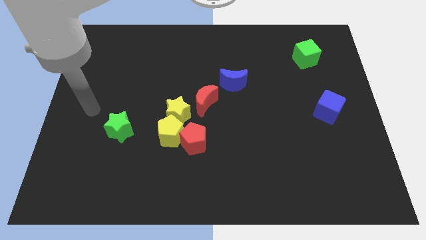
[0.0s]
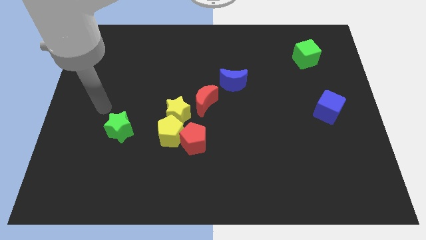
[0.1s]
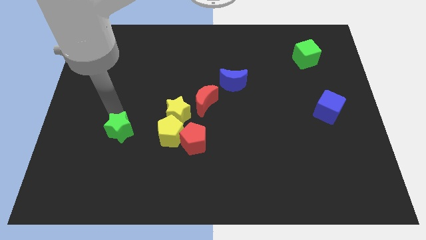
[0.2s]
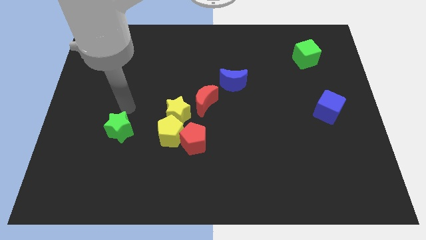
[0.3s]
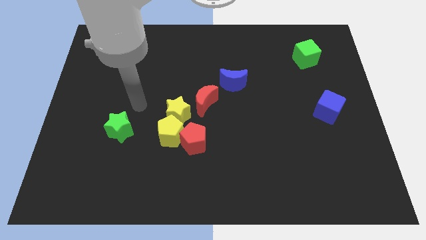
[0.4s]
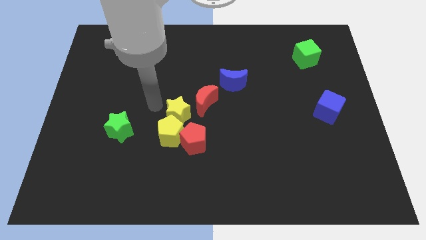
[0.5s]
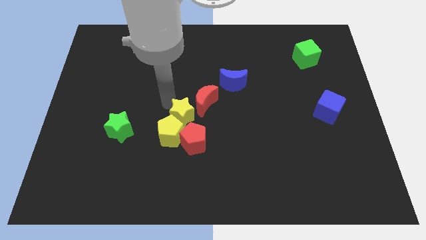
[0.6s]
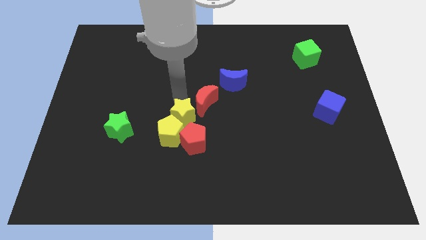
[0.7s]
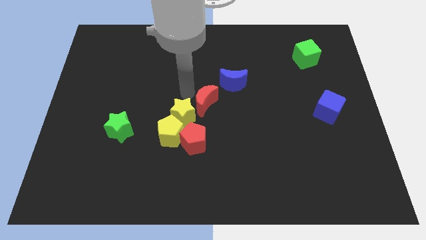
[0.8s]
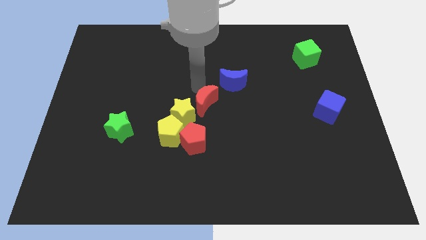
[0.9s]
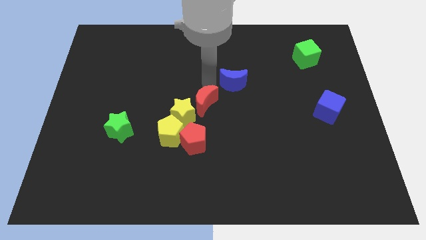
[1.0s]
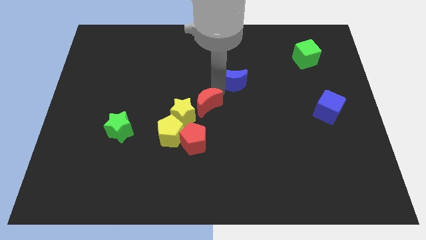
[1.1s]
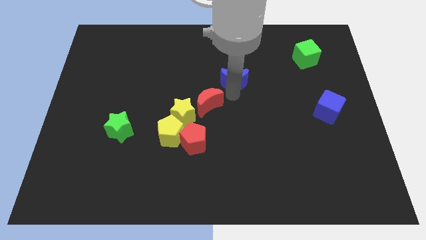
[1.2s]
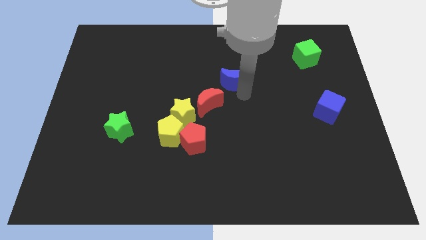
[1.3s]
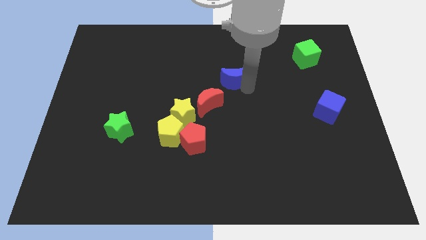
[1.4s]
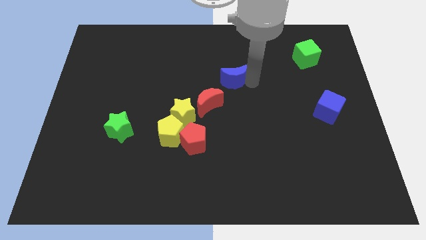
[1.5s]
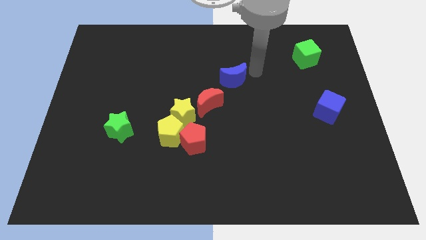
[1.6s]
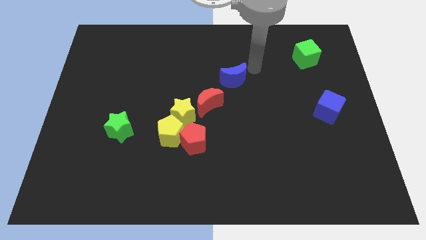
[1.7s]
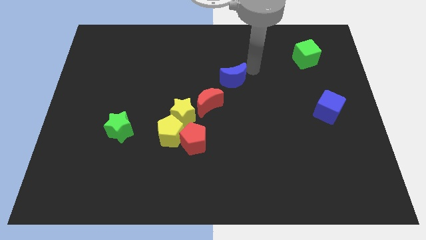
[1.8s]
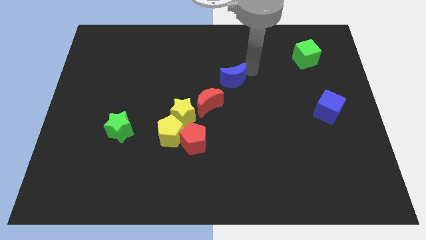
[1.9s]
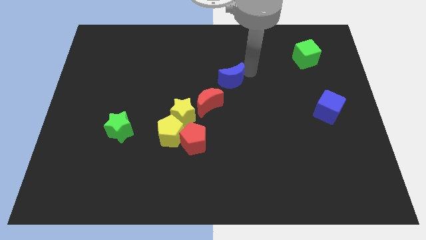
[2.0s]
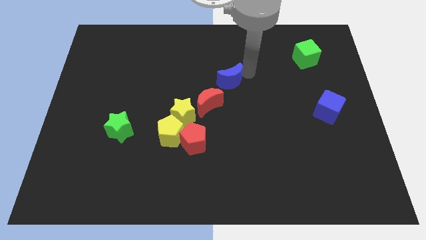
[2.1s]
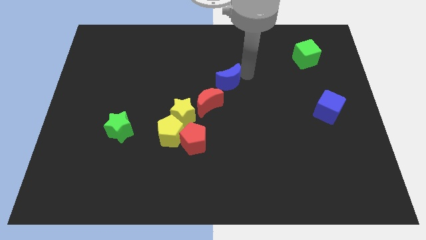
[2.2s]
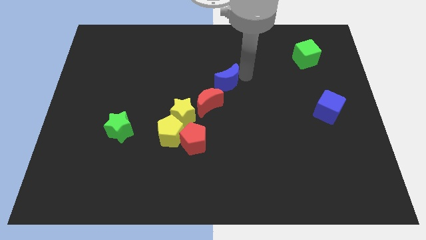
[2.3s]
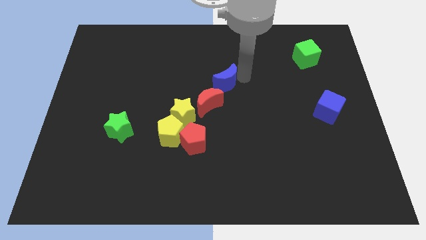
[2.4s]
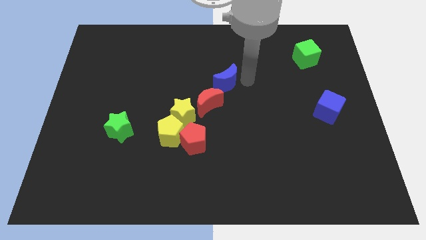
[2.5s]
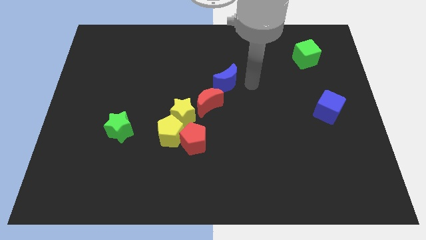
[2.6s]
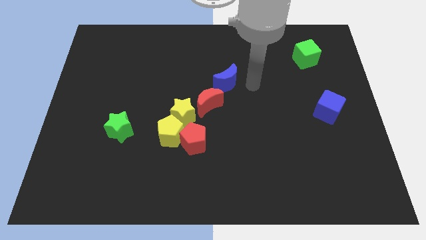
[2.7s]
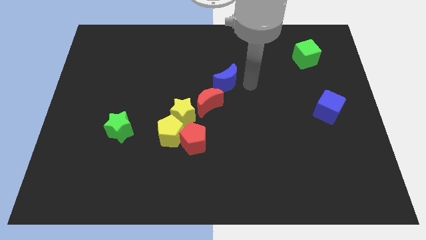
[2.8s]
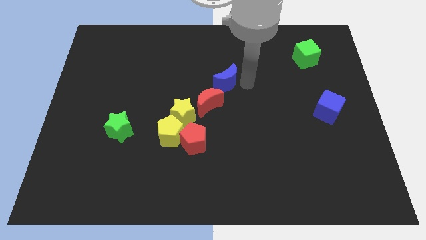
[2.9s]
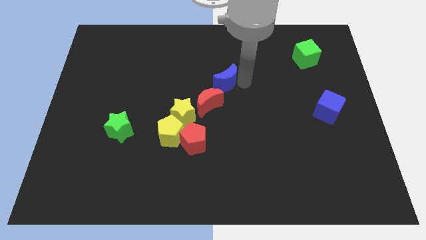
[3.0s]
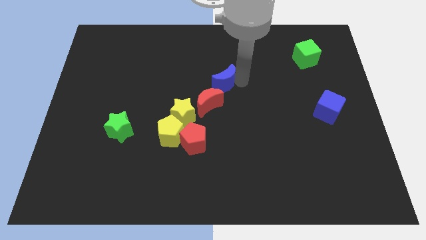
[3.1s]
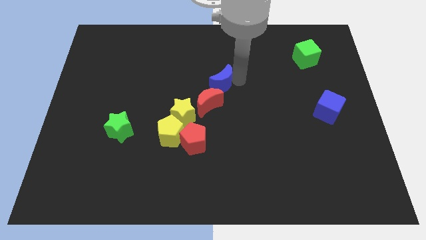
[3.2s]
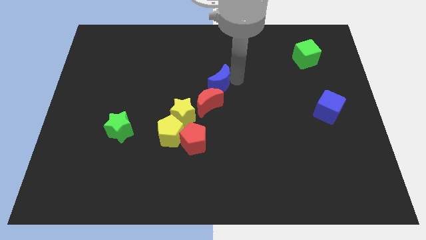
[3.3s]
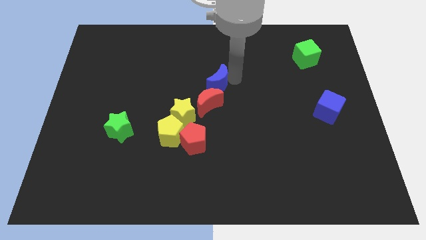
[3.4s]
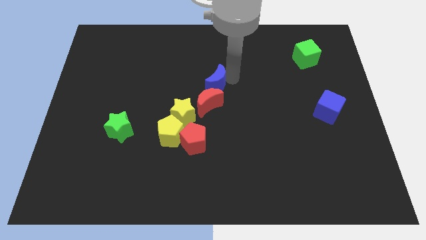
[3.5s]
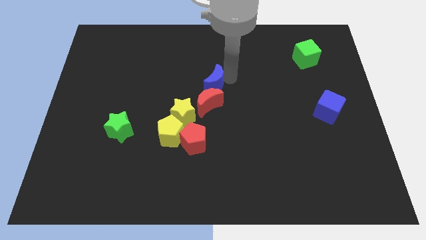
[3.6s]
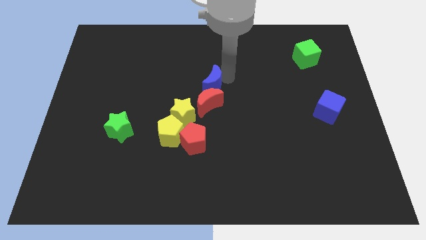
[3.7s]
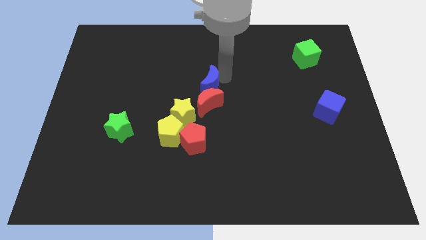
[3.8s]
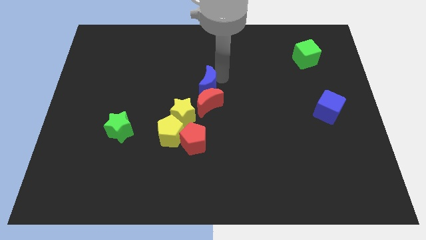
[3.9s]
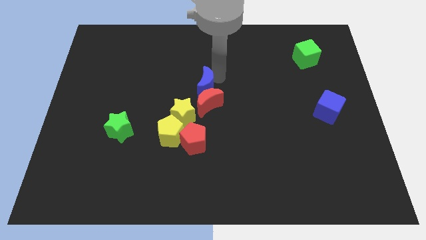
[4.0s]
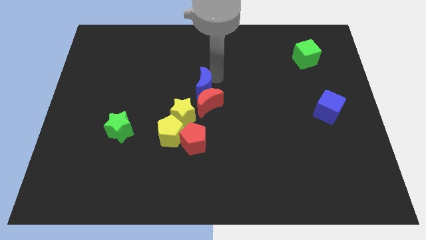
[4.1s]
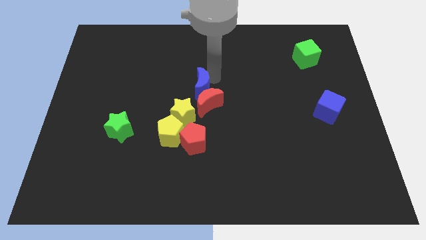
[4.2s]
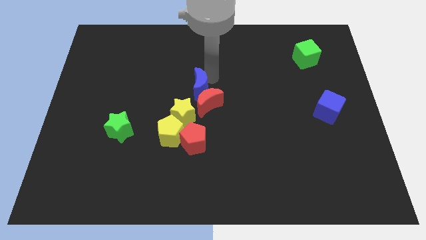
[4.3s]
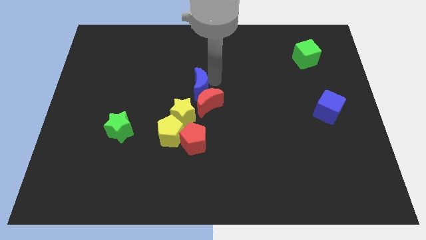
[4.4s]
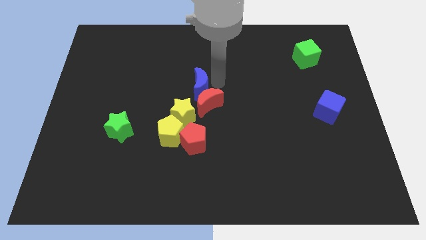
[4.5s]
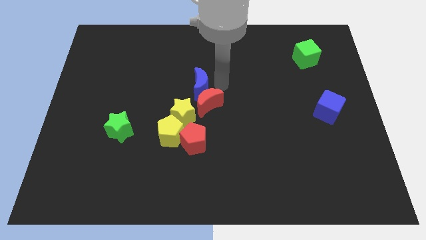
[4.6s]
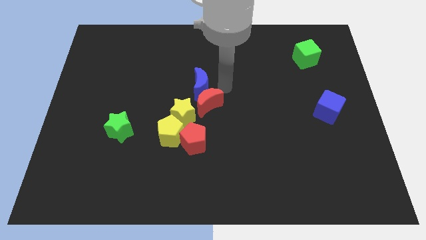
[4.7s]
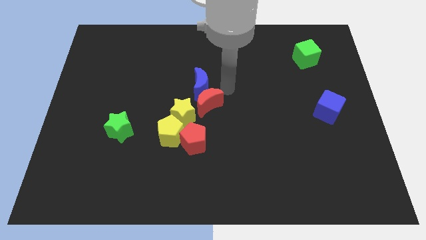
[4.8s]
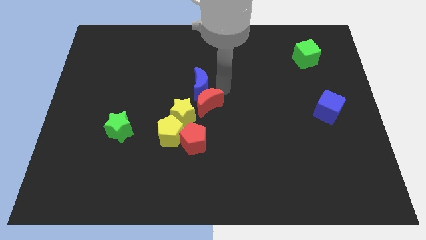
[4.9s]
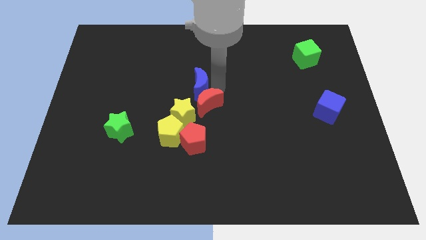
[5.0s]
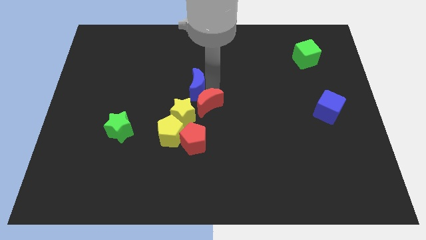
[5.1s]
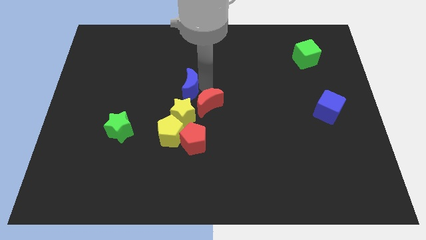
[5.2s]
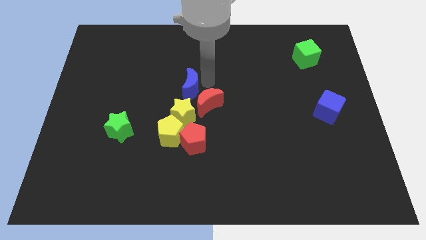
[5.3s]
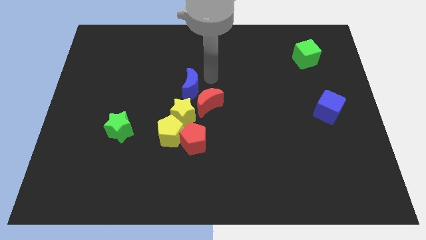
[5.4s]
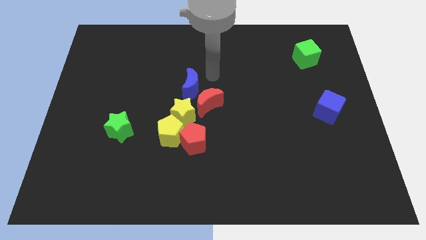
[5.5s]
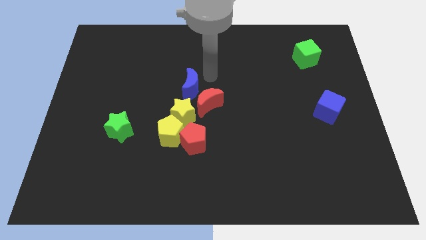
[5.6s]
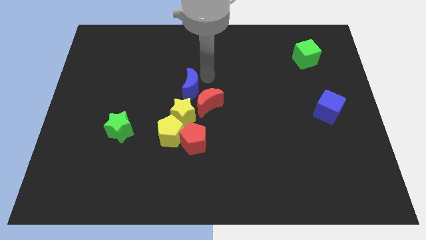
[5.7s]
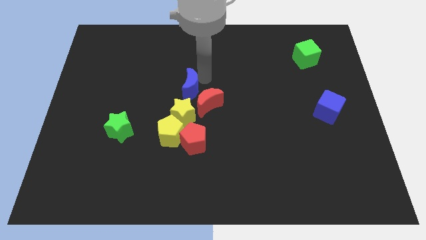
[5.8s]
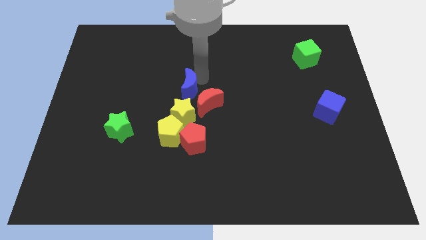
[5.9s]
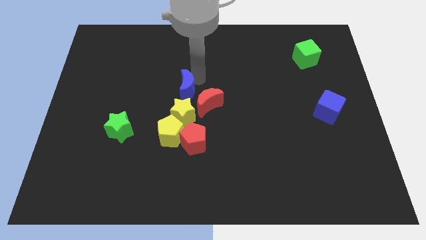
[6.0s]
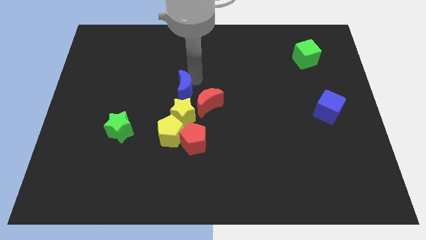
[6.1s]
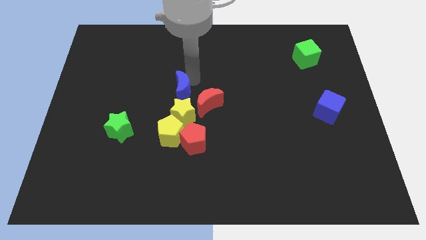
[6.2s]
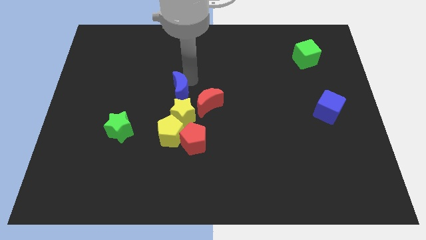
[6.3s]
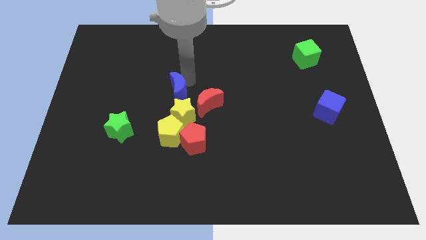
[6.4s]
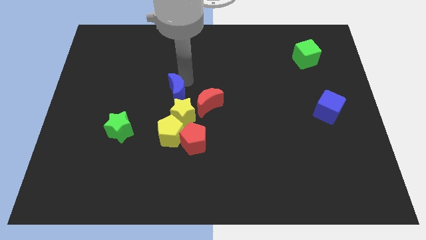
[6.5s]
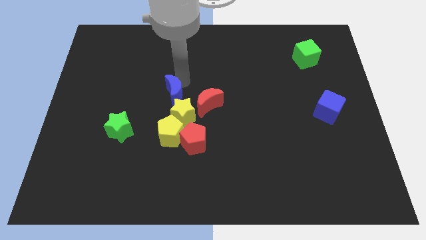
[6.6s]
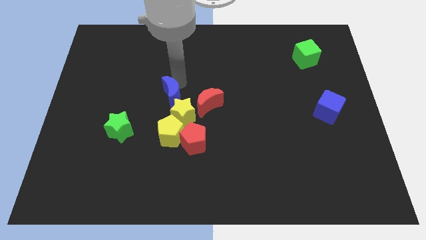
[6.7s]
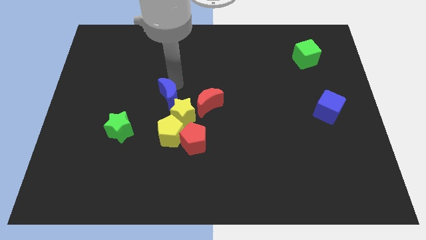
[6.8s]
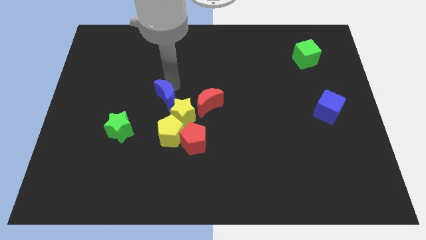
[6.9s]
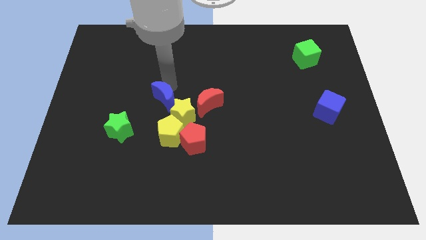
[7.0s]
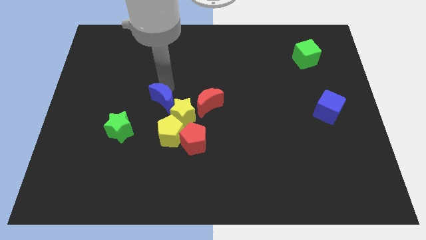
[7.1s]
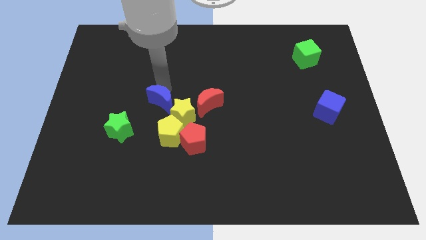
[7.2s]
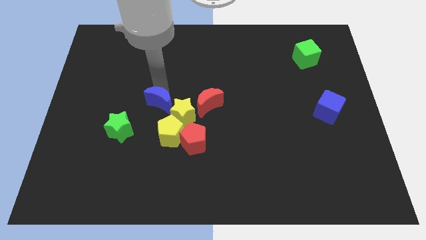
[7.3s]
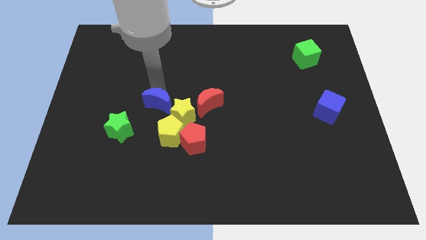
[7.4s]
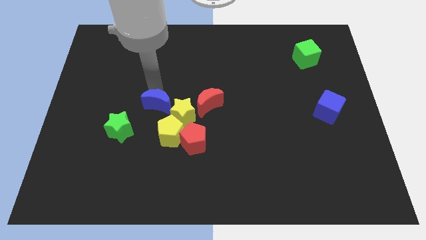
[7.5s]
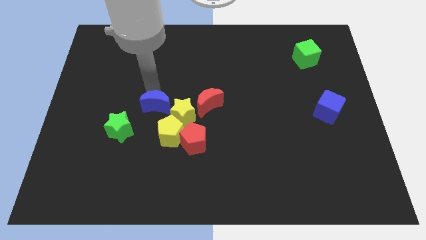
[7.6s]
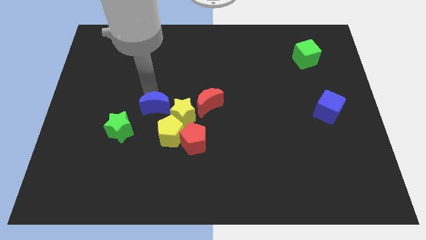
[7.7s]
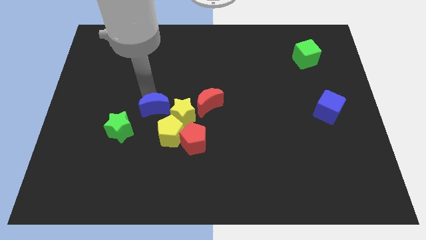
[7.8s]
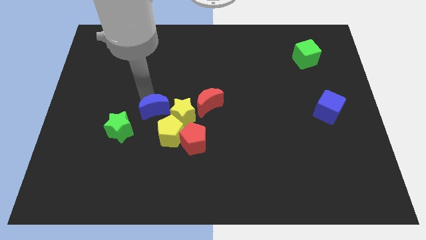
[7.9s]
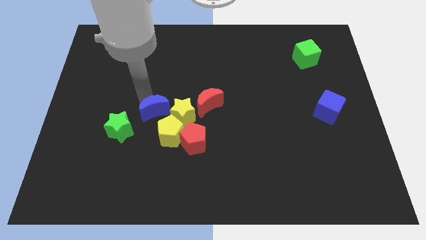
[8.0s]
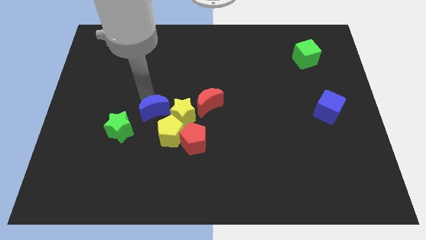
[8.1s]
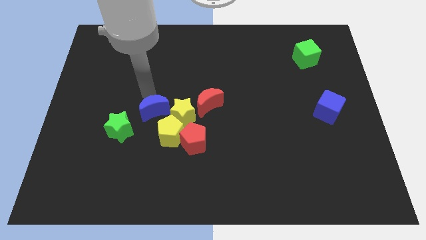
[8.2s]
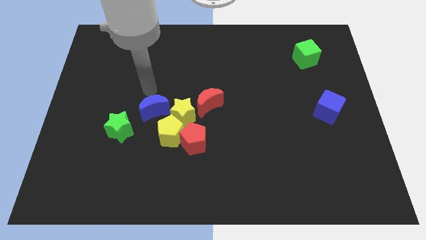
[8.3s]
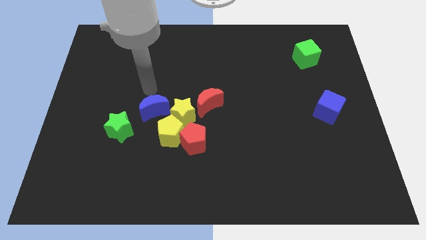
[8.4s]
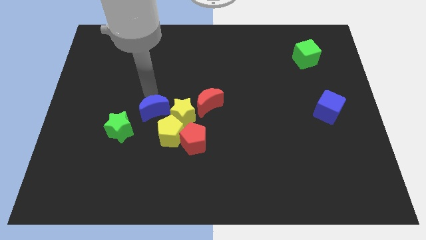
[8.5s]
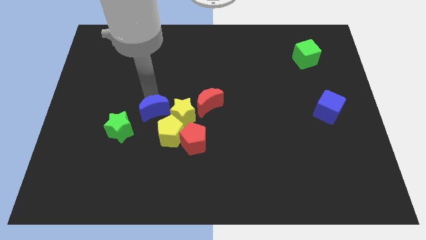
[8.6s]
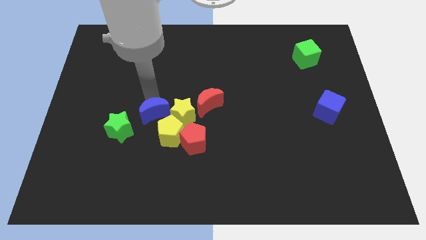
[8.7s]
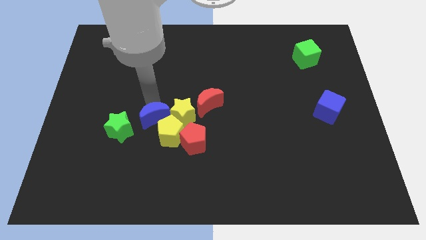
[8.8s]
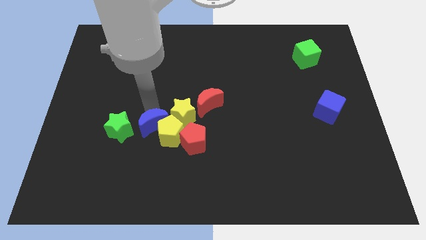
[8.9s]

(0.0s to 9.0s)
put the blue moon close to the yellow pentagon
